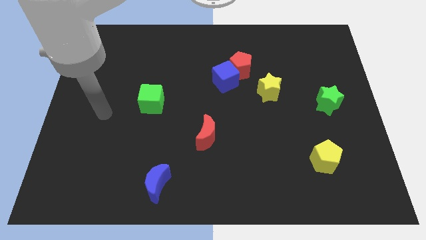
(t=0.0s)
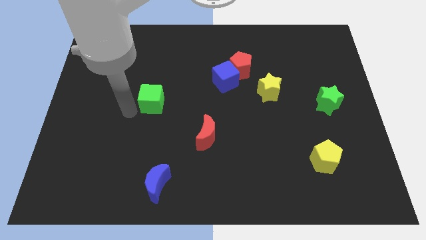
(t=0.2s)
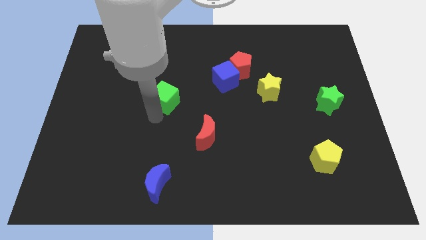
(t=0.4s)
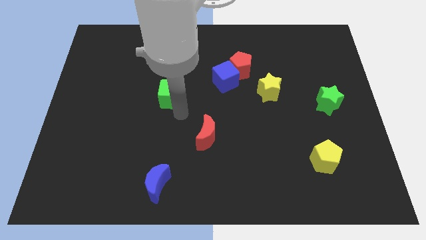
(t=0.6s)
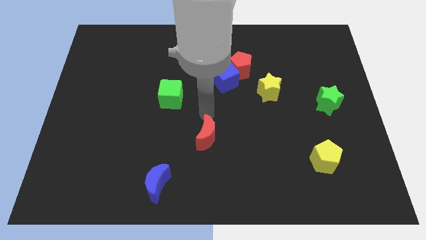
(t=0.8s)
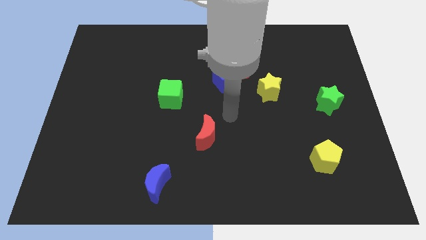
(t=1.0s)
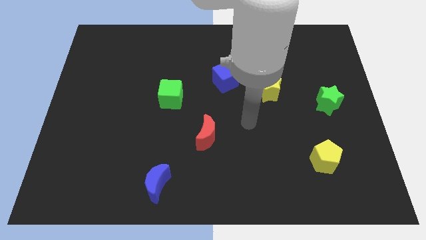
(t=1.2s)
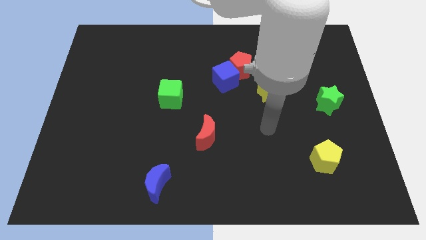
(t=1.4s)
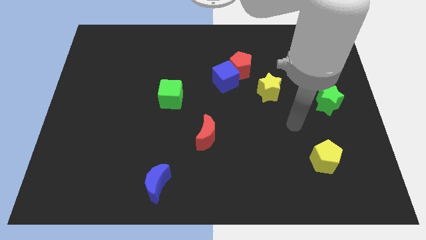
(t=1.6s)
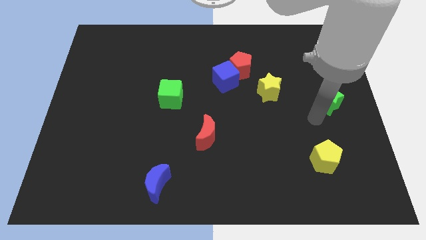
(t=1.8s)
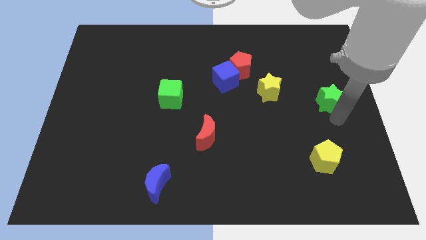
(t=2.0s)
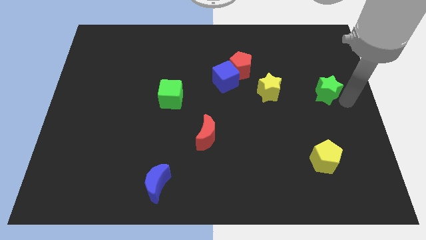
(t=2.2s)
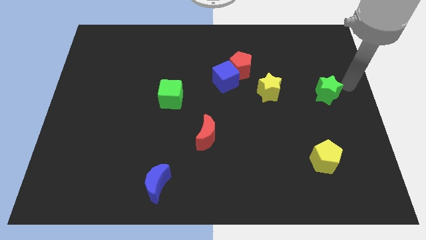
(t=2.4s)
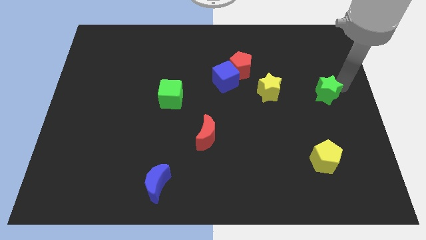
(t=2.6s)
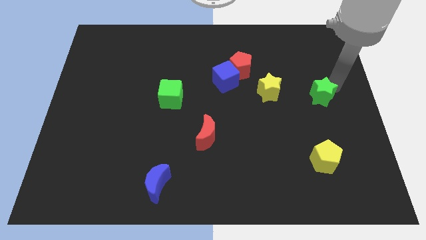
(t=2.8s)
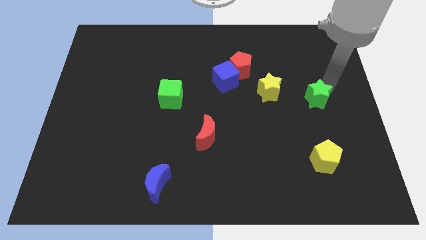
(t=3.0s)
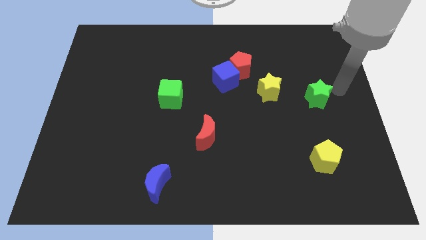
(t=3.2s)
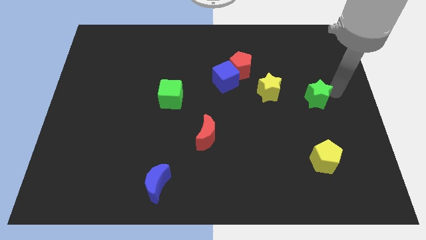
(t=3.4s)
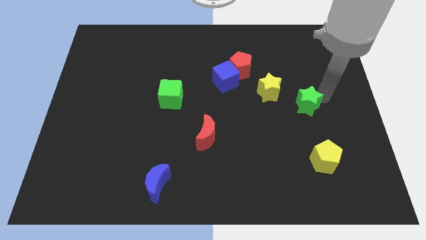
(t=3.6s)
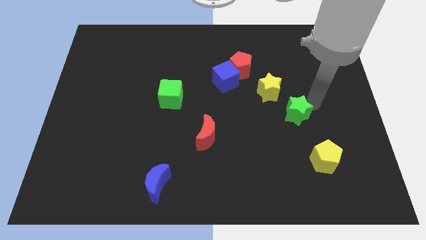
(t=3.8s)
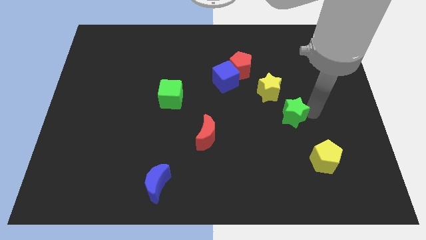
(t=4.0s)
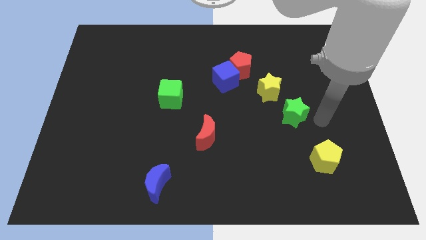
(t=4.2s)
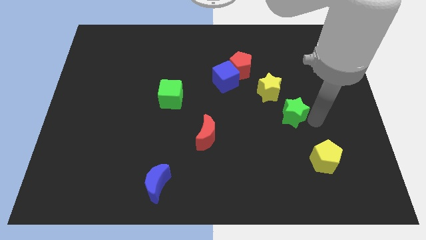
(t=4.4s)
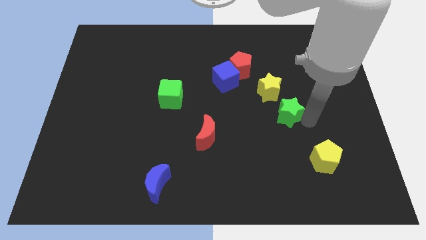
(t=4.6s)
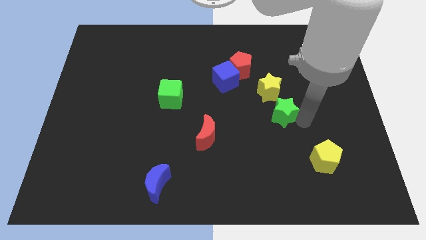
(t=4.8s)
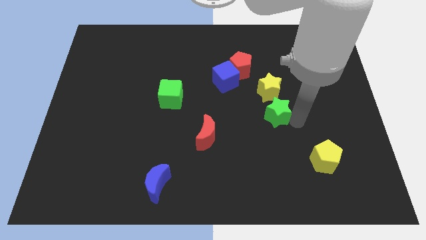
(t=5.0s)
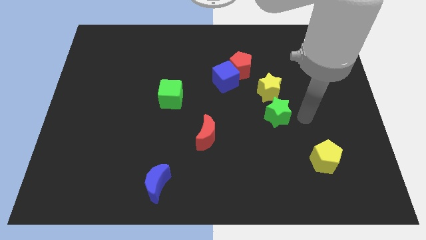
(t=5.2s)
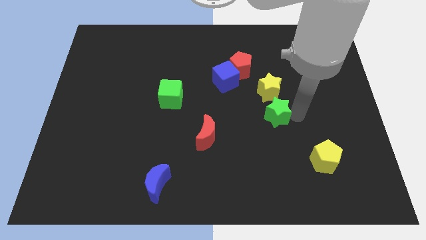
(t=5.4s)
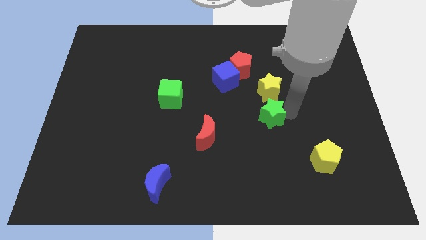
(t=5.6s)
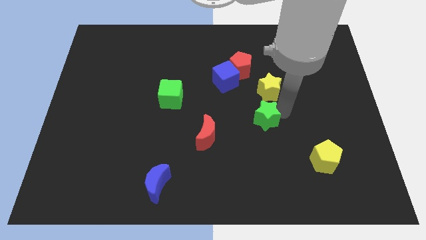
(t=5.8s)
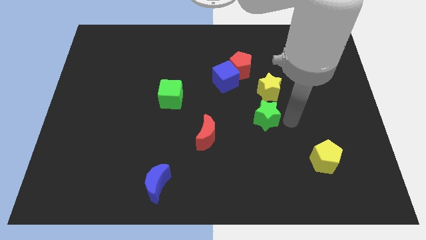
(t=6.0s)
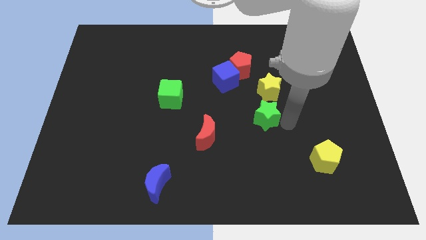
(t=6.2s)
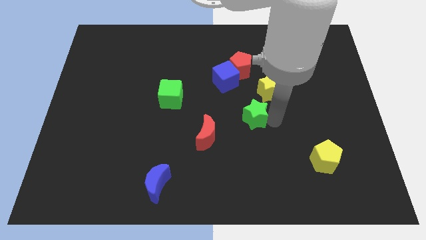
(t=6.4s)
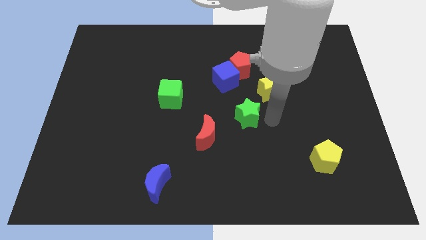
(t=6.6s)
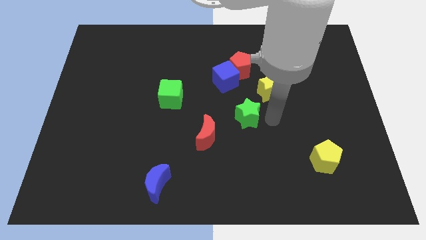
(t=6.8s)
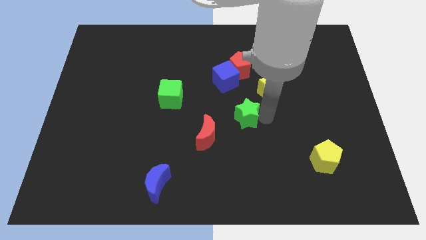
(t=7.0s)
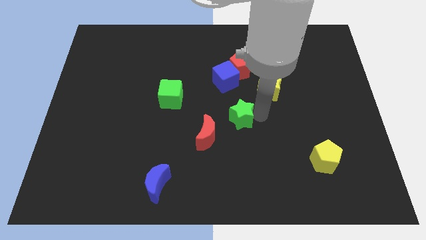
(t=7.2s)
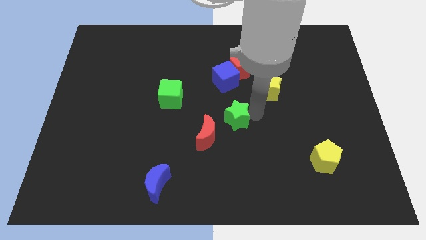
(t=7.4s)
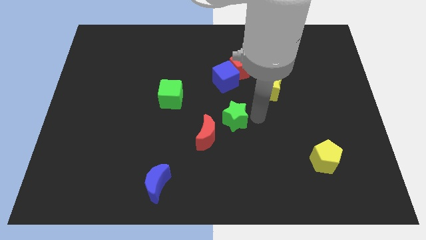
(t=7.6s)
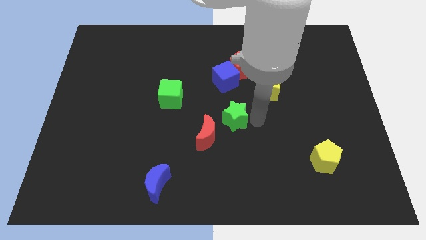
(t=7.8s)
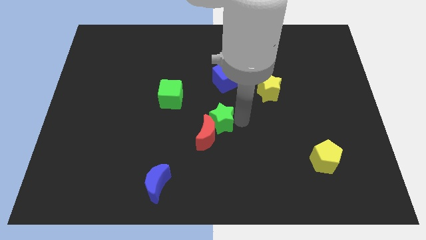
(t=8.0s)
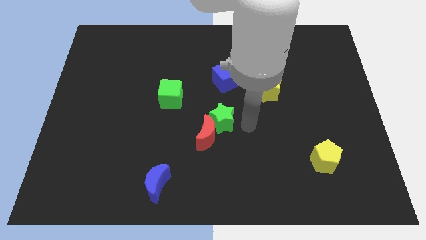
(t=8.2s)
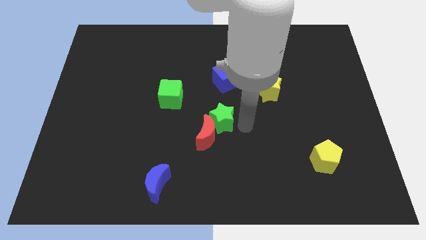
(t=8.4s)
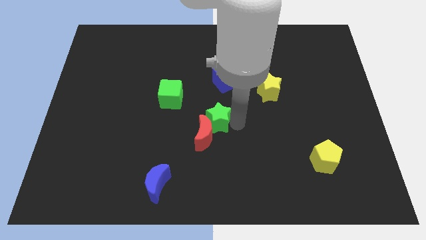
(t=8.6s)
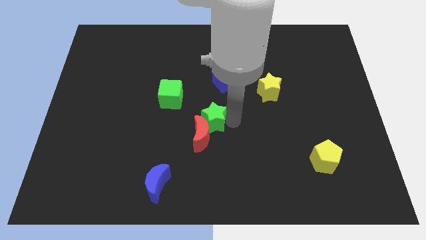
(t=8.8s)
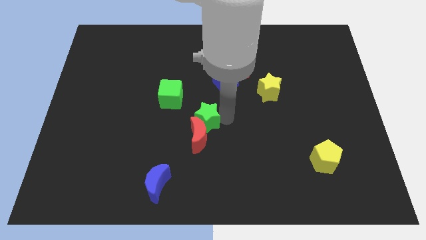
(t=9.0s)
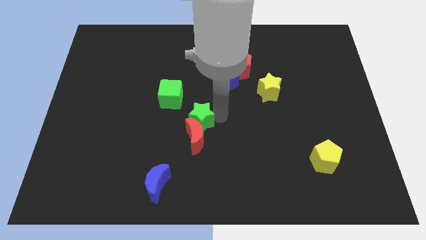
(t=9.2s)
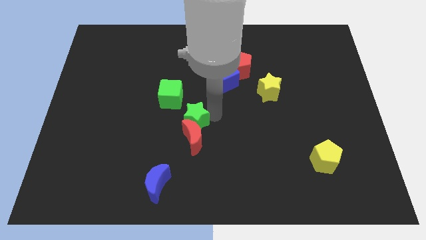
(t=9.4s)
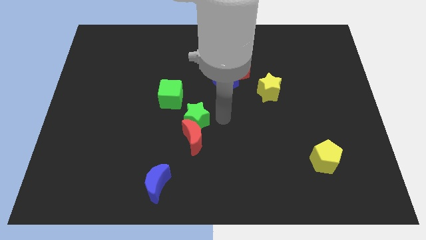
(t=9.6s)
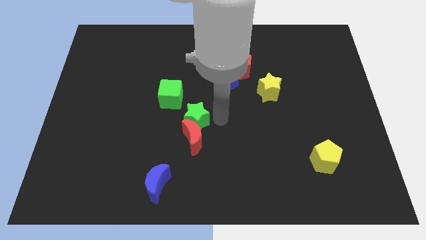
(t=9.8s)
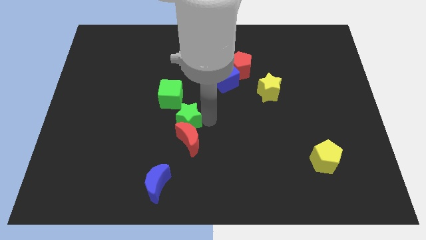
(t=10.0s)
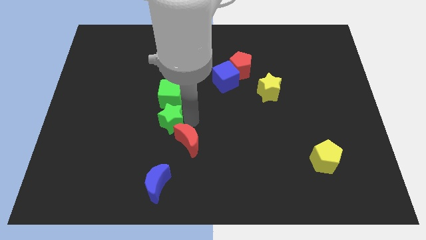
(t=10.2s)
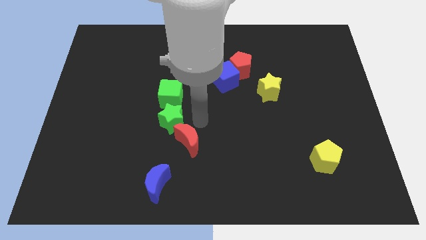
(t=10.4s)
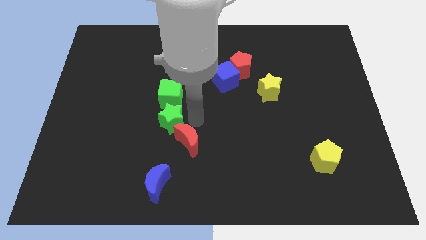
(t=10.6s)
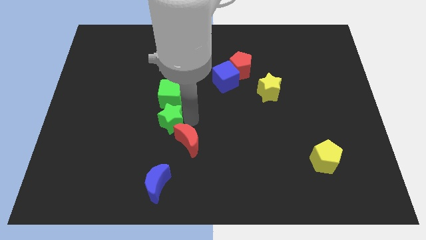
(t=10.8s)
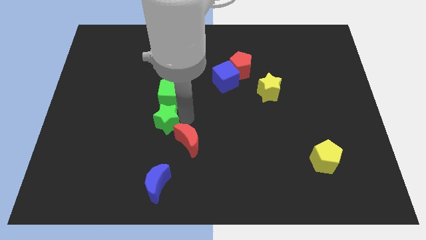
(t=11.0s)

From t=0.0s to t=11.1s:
move the green star to the bottom left of the green cube

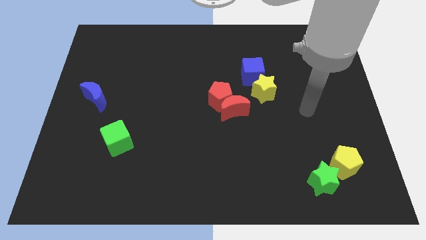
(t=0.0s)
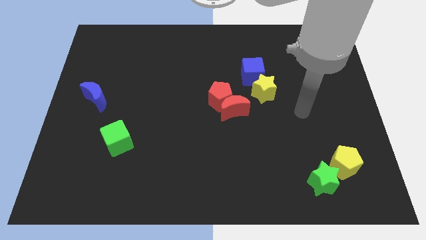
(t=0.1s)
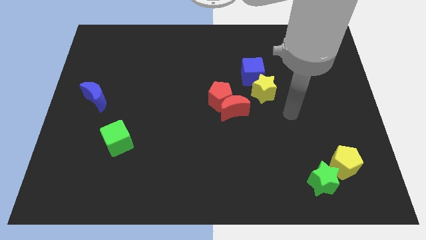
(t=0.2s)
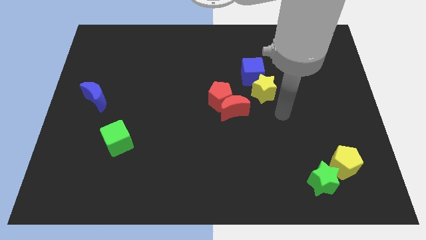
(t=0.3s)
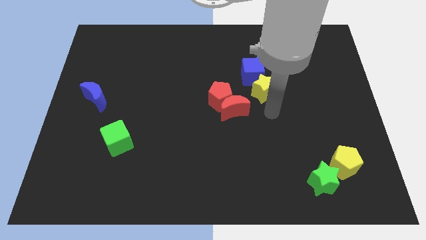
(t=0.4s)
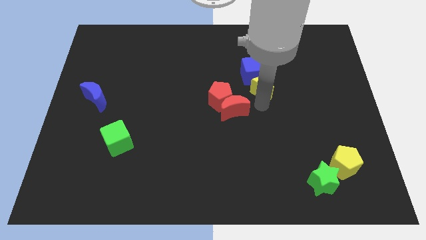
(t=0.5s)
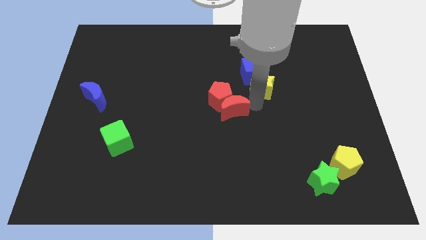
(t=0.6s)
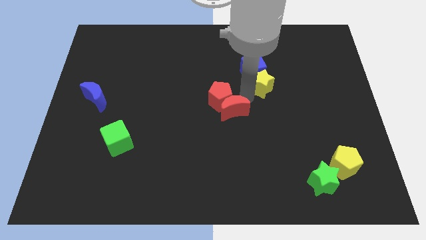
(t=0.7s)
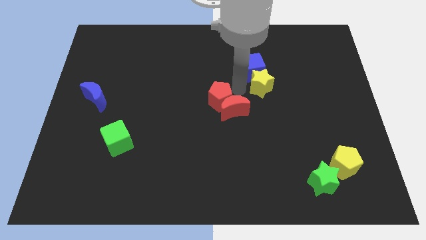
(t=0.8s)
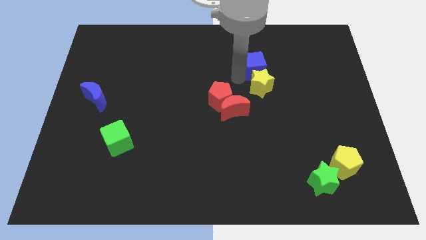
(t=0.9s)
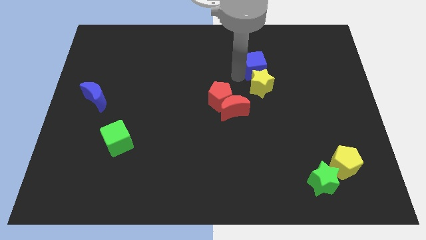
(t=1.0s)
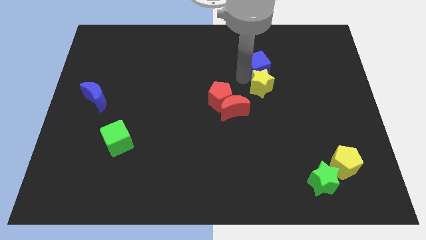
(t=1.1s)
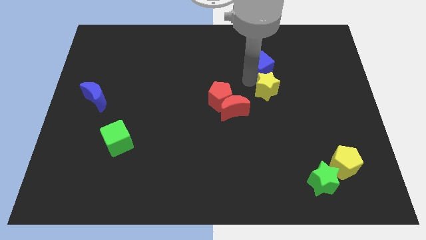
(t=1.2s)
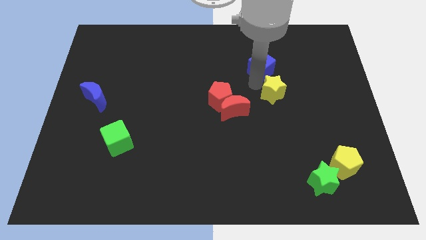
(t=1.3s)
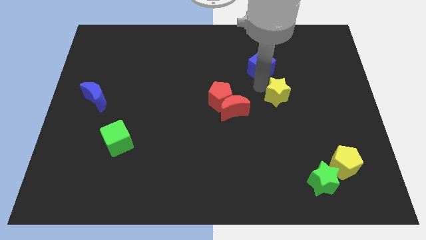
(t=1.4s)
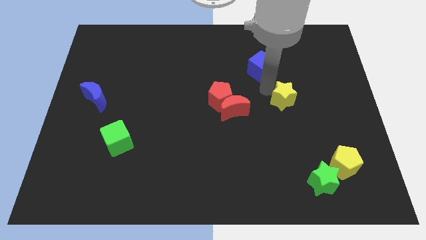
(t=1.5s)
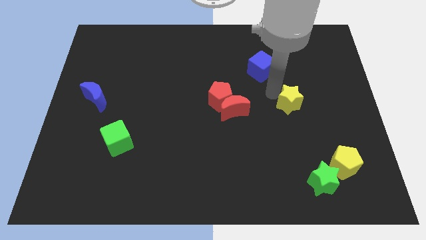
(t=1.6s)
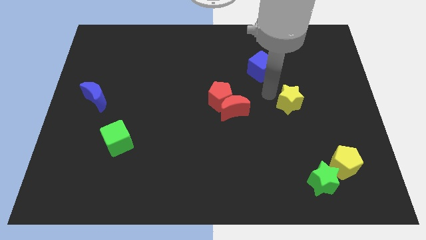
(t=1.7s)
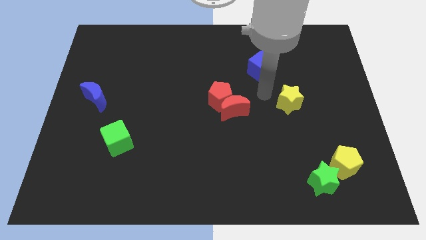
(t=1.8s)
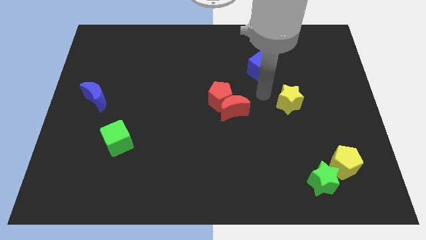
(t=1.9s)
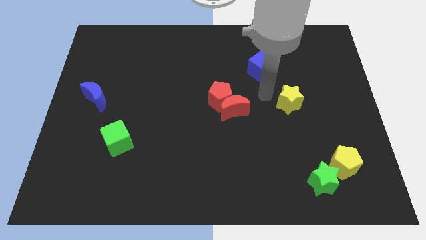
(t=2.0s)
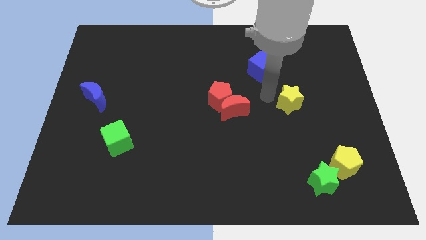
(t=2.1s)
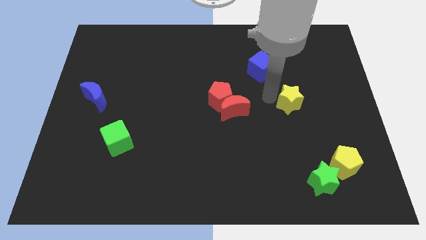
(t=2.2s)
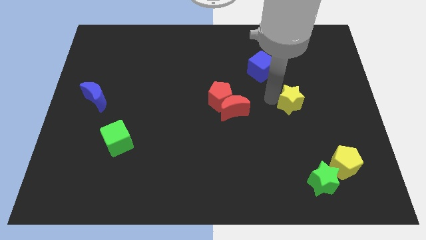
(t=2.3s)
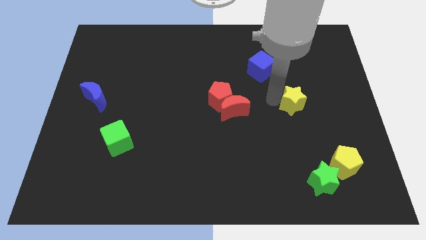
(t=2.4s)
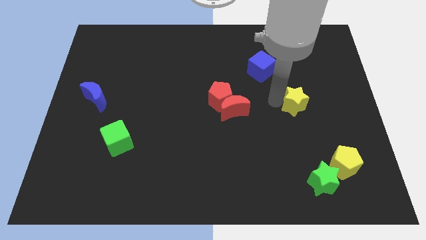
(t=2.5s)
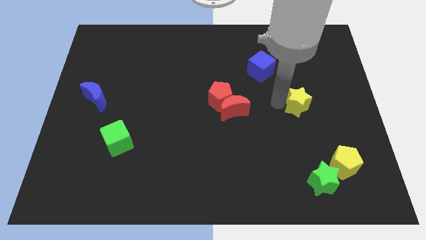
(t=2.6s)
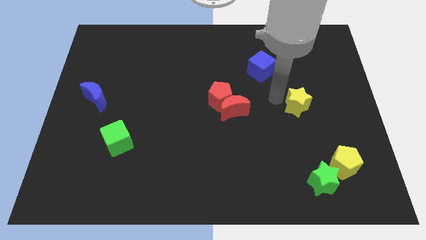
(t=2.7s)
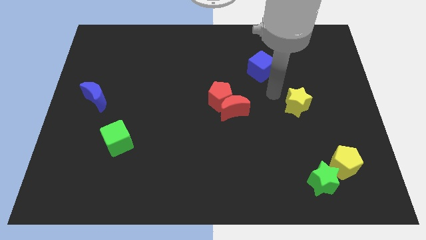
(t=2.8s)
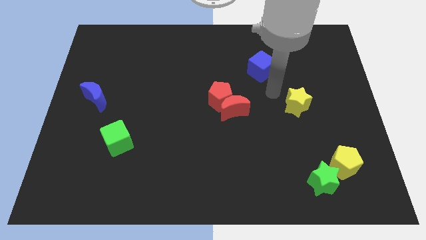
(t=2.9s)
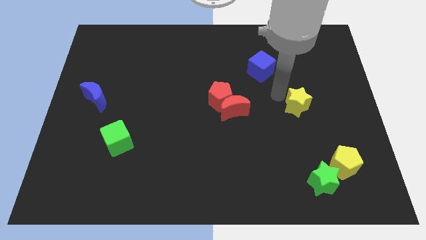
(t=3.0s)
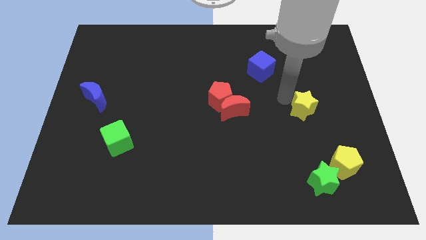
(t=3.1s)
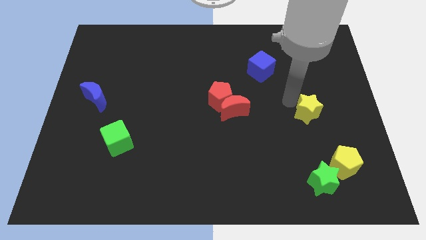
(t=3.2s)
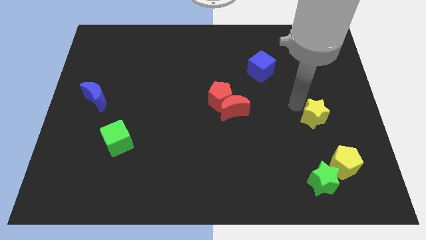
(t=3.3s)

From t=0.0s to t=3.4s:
move the yellow star above the yellow pentagon
